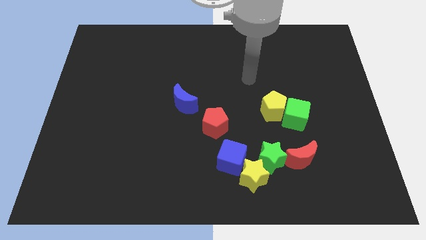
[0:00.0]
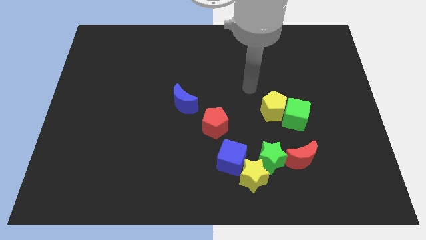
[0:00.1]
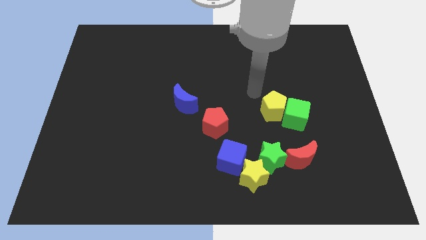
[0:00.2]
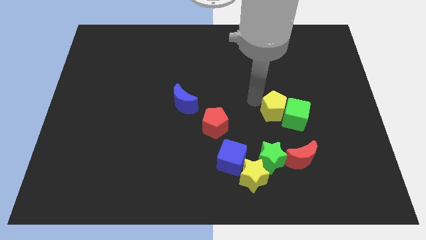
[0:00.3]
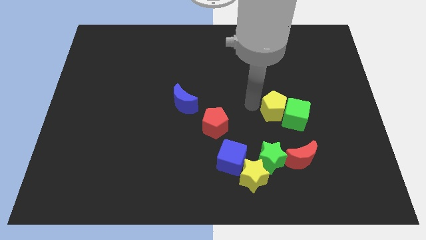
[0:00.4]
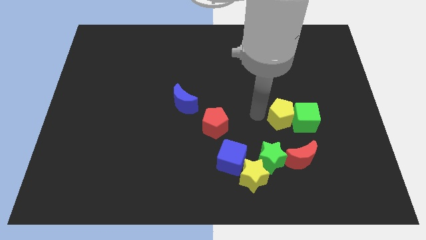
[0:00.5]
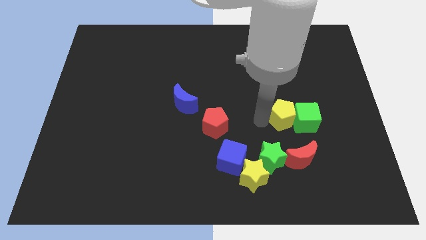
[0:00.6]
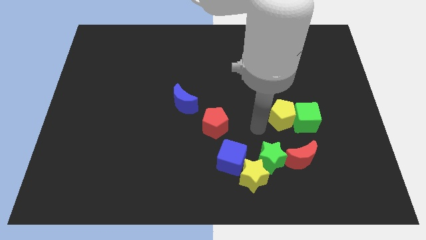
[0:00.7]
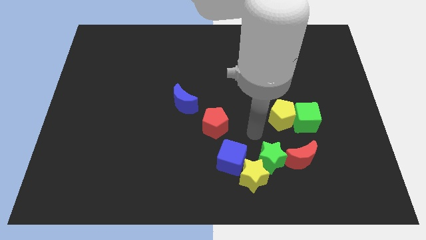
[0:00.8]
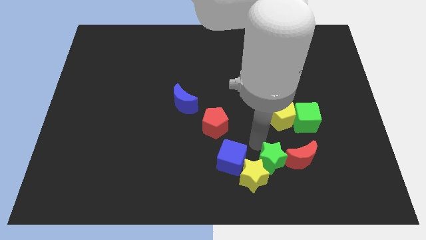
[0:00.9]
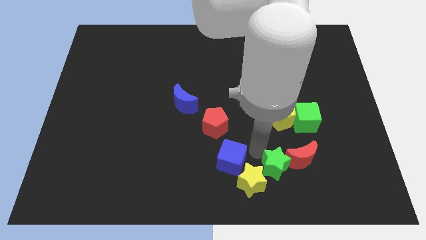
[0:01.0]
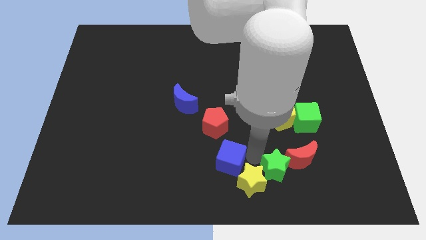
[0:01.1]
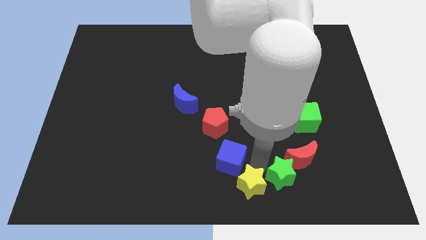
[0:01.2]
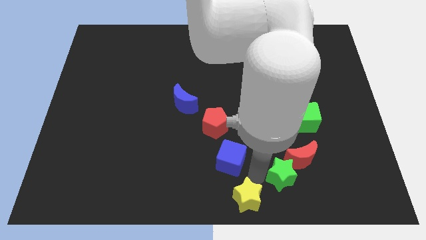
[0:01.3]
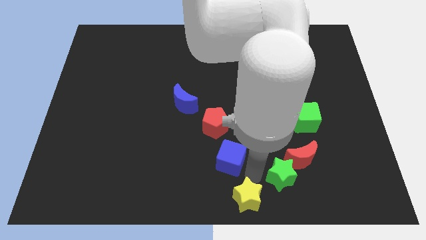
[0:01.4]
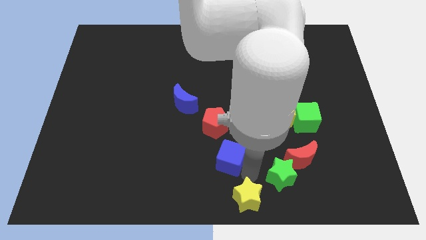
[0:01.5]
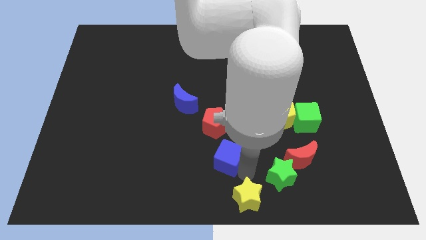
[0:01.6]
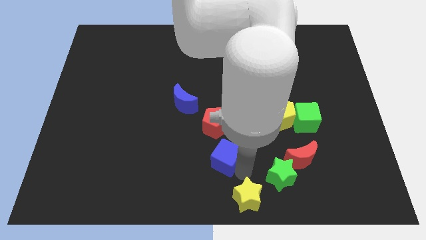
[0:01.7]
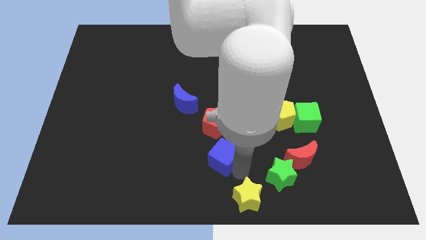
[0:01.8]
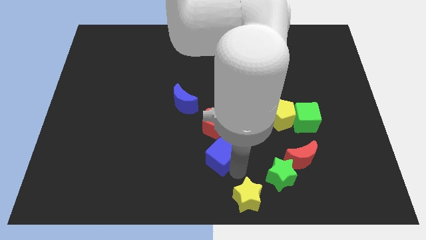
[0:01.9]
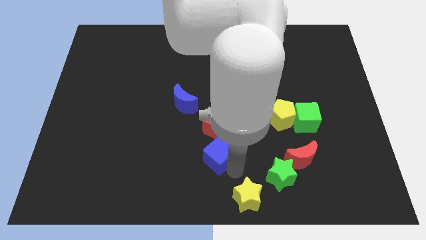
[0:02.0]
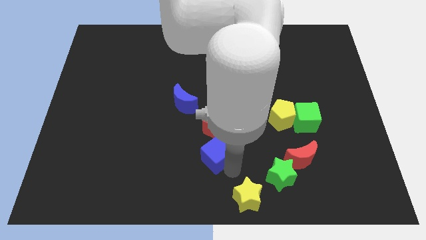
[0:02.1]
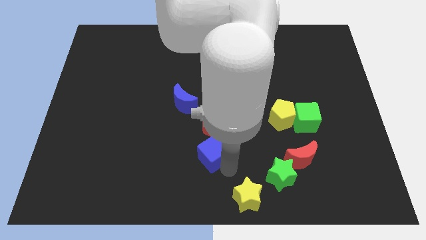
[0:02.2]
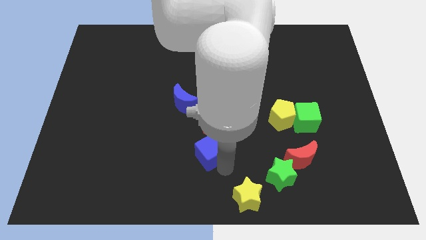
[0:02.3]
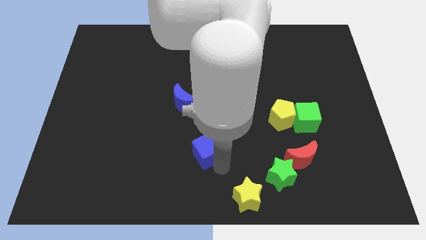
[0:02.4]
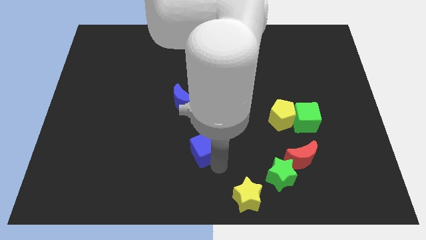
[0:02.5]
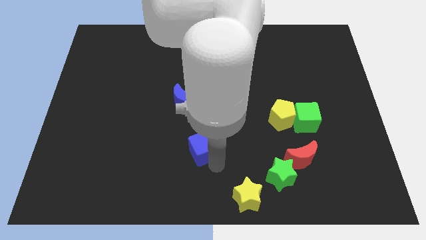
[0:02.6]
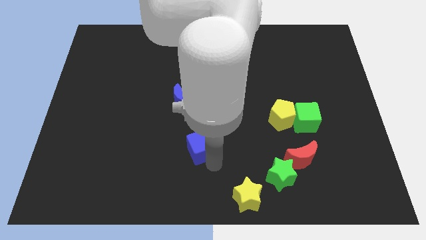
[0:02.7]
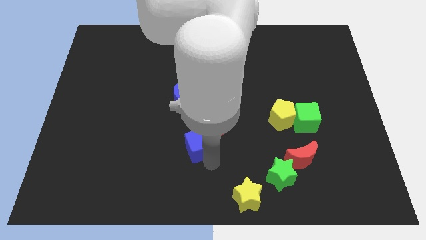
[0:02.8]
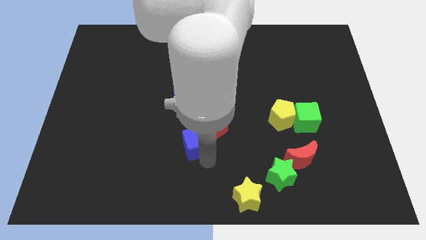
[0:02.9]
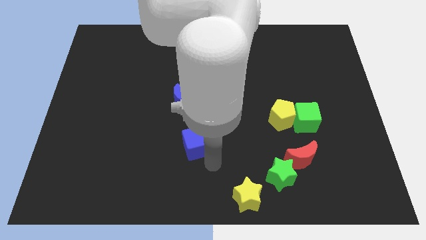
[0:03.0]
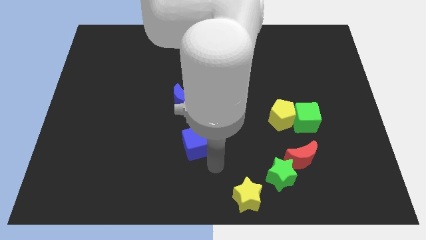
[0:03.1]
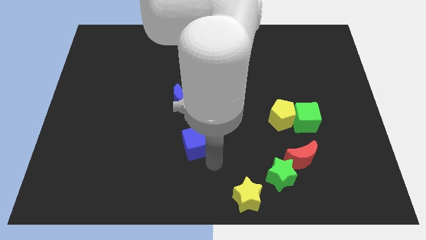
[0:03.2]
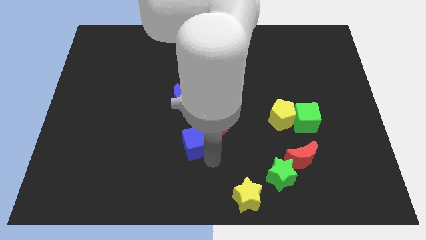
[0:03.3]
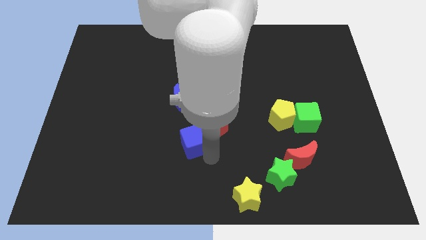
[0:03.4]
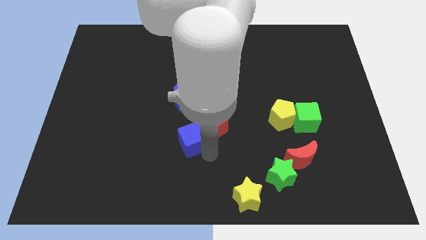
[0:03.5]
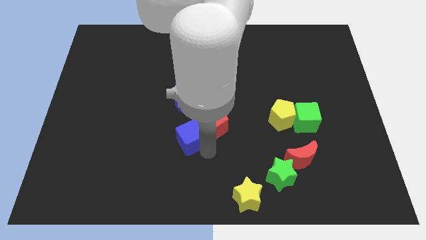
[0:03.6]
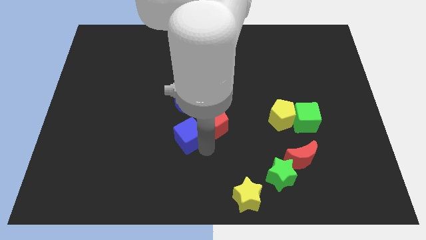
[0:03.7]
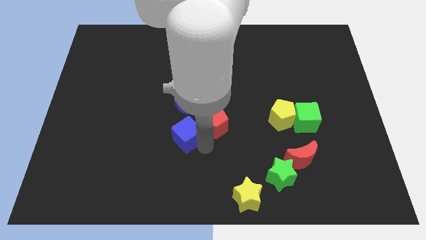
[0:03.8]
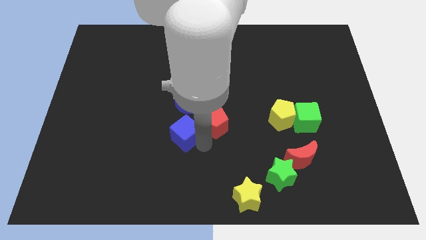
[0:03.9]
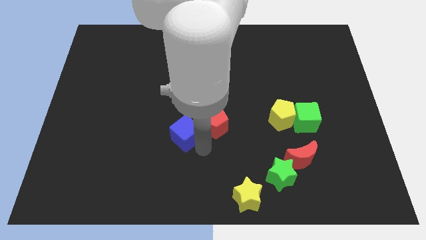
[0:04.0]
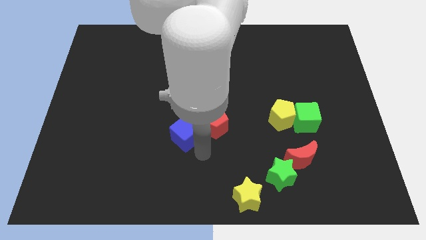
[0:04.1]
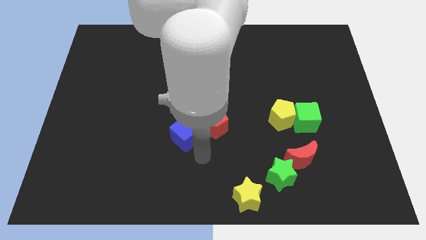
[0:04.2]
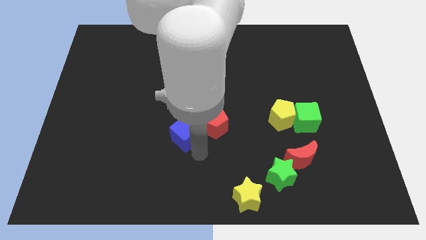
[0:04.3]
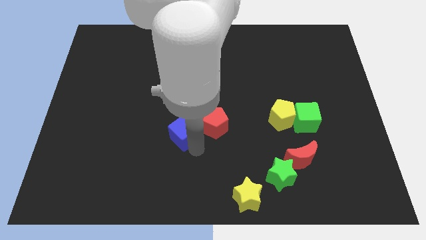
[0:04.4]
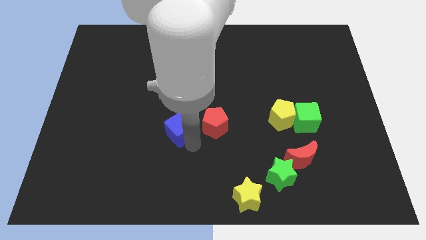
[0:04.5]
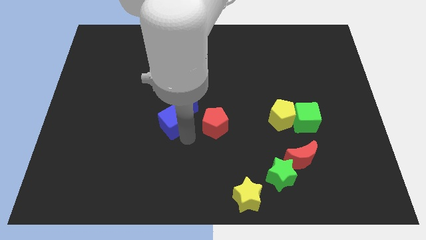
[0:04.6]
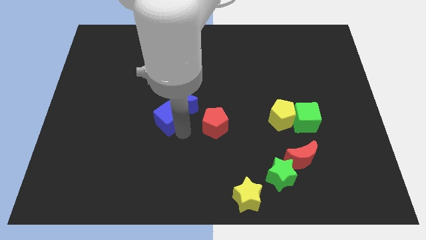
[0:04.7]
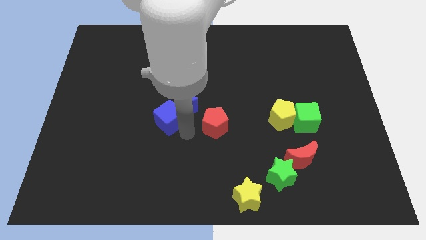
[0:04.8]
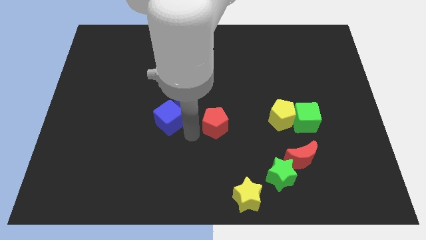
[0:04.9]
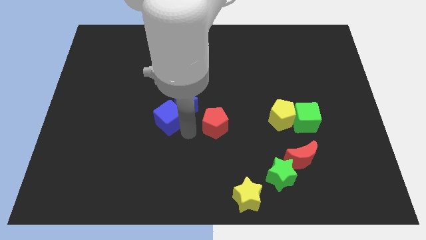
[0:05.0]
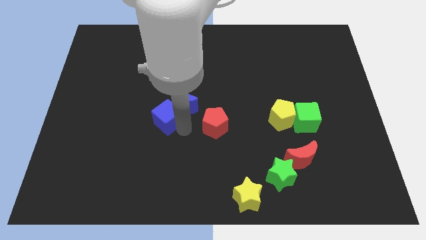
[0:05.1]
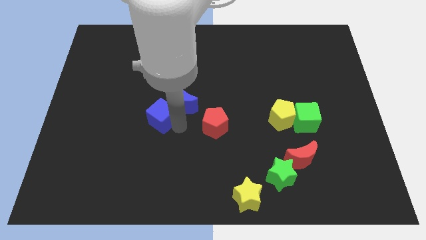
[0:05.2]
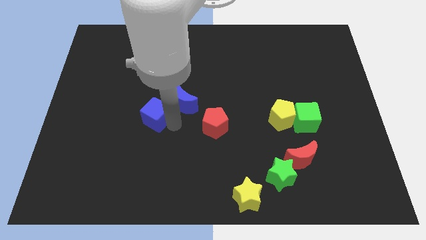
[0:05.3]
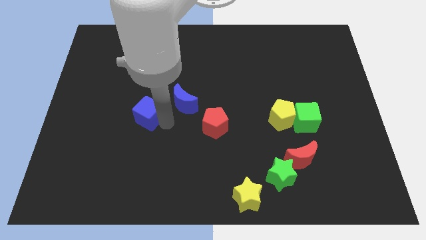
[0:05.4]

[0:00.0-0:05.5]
slide the blue cube upwards and then left

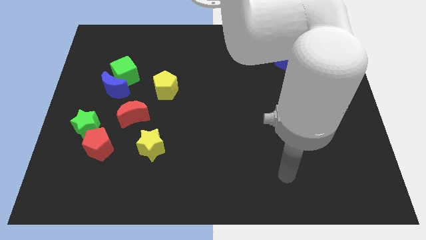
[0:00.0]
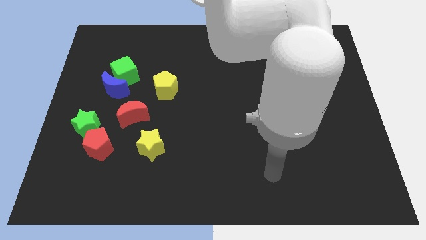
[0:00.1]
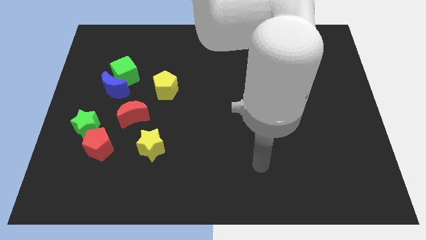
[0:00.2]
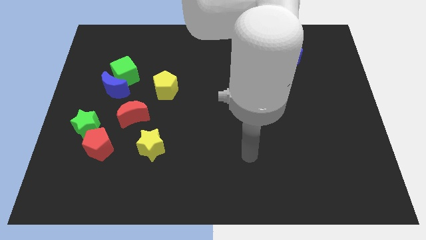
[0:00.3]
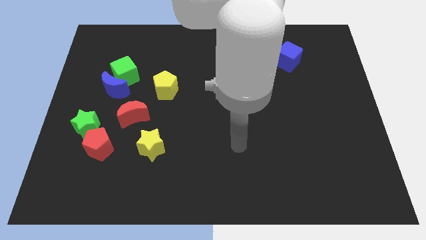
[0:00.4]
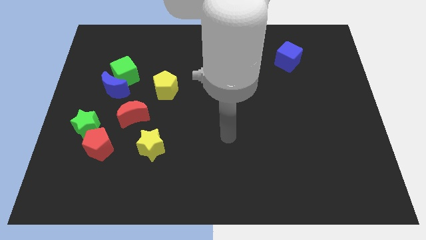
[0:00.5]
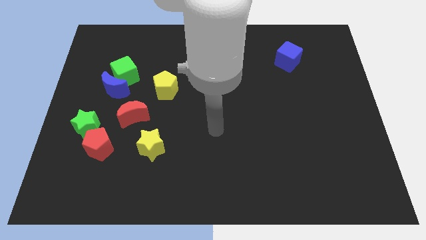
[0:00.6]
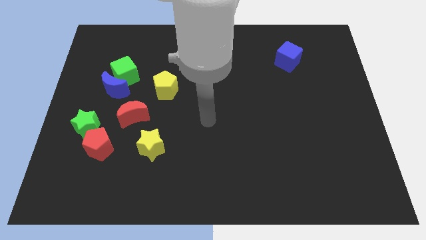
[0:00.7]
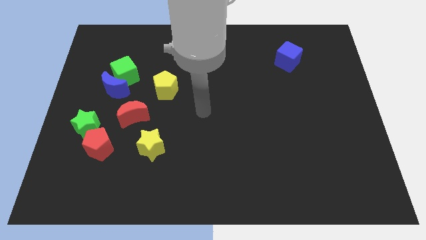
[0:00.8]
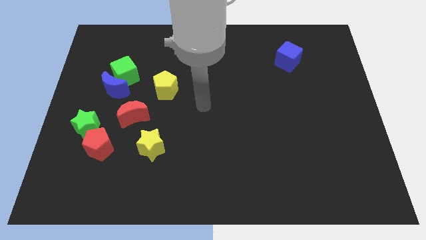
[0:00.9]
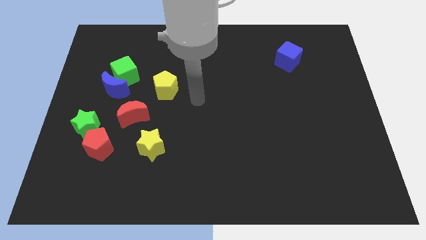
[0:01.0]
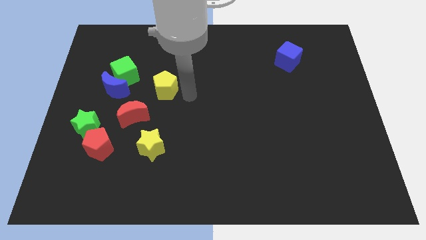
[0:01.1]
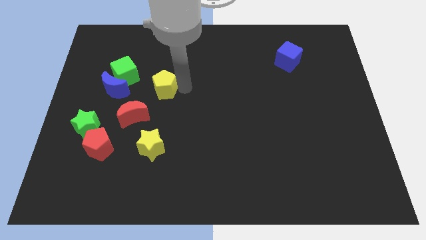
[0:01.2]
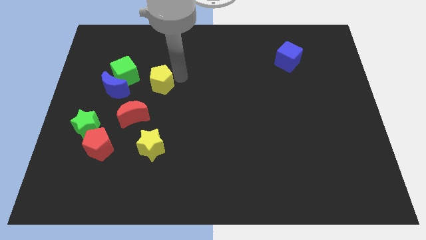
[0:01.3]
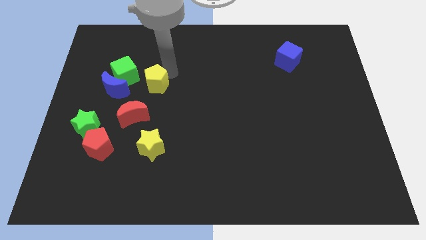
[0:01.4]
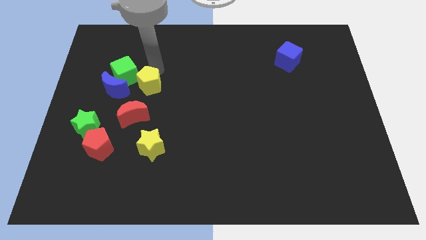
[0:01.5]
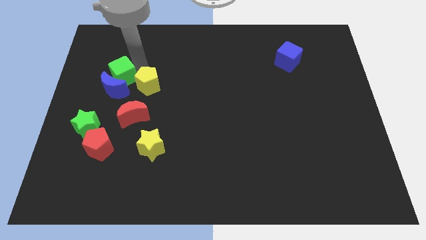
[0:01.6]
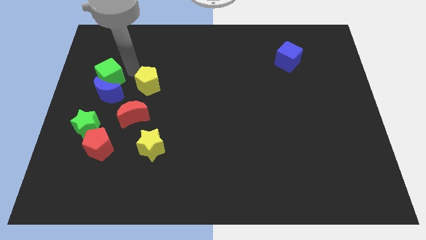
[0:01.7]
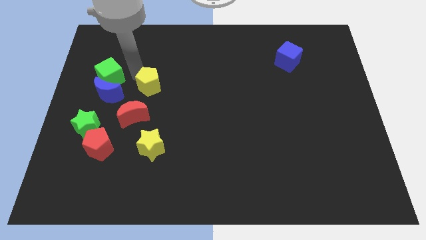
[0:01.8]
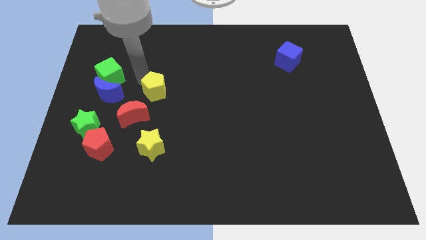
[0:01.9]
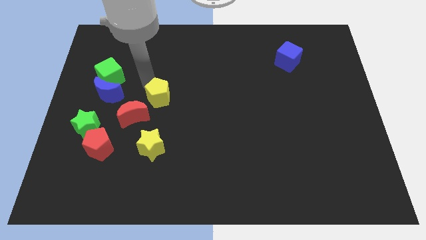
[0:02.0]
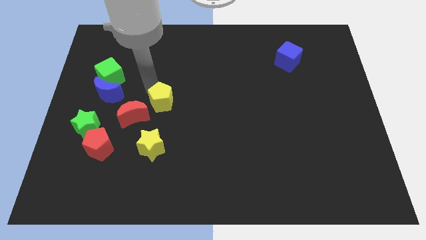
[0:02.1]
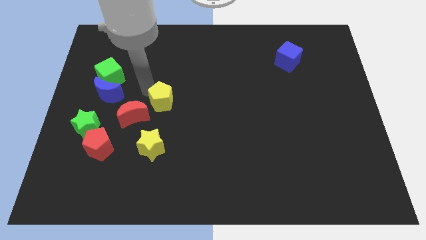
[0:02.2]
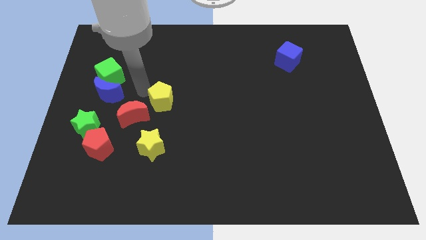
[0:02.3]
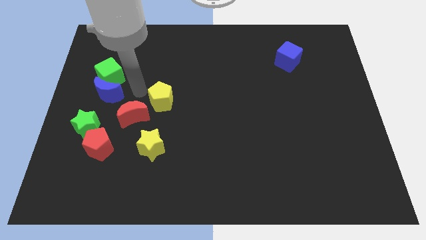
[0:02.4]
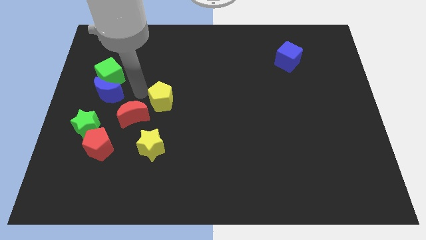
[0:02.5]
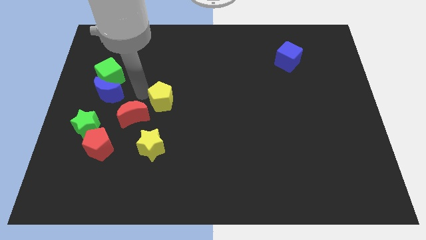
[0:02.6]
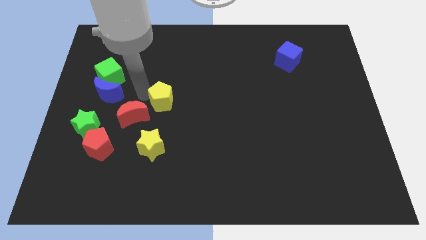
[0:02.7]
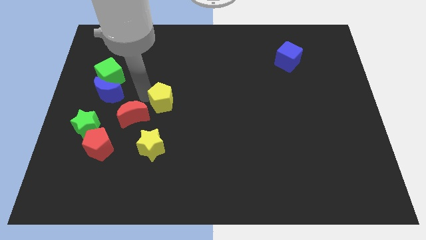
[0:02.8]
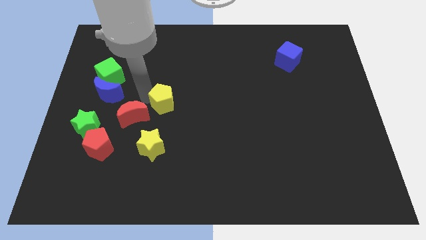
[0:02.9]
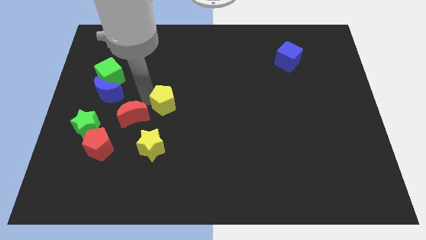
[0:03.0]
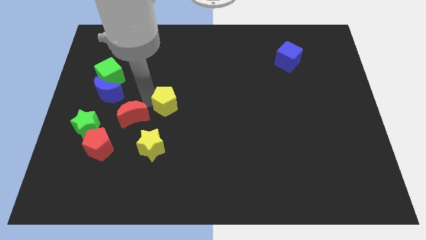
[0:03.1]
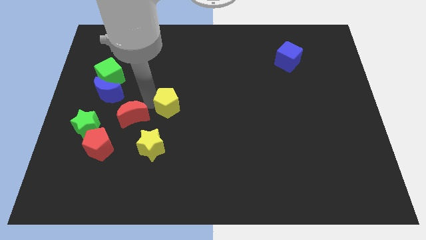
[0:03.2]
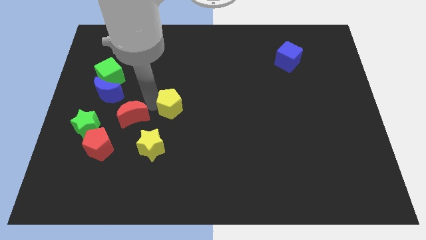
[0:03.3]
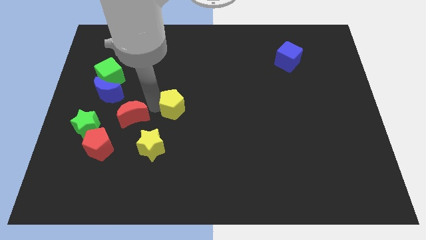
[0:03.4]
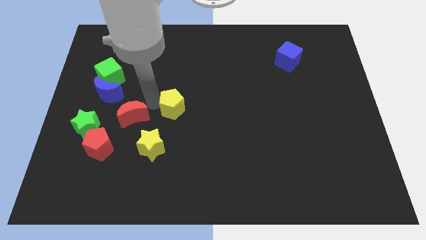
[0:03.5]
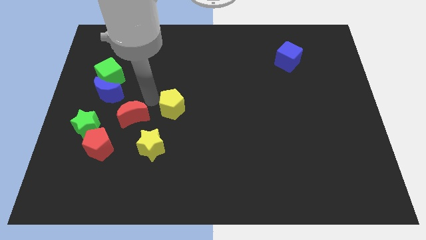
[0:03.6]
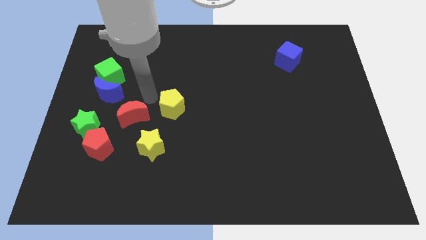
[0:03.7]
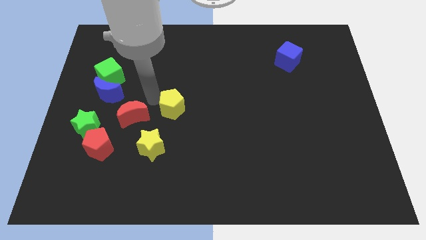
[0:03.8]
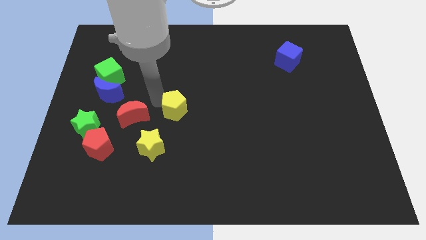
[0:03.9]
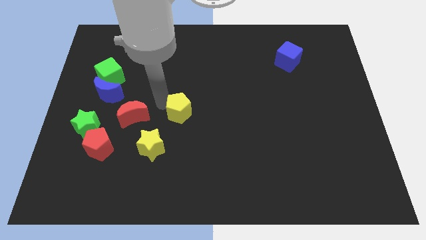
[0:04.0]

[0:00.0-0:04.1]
slightly slide the yellow pentagon down and right
